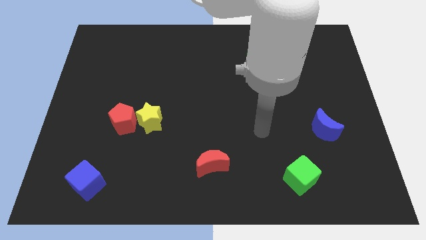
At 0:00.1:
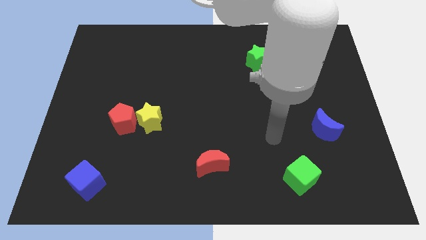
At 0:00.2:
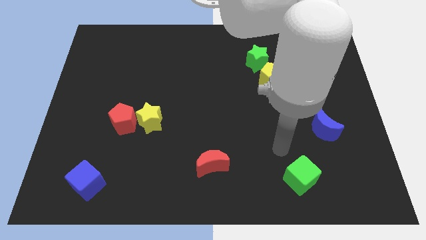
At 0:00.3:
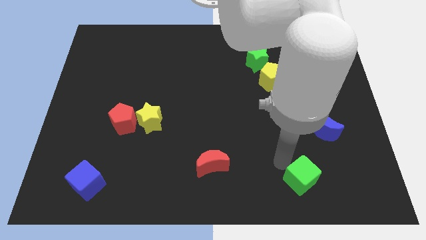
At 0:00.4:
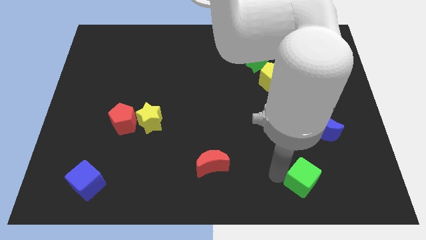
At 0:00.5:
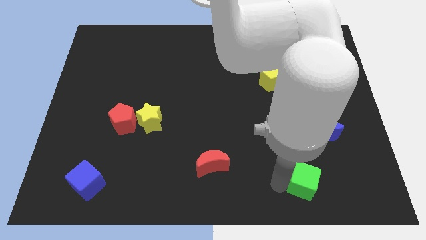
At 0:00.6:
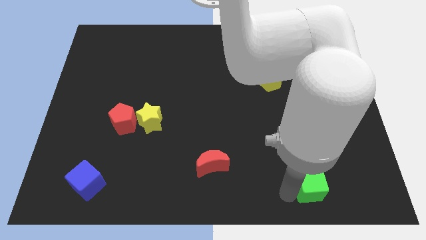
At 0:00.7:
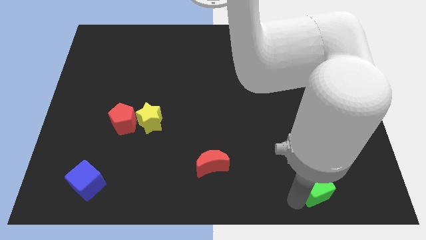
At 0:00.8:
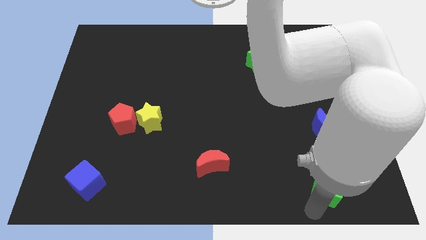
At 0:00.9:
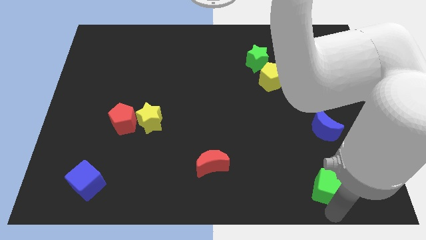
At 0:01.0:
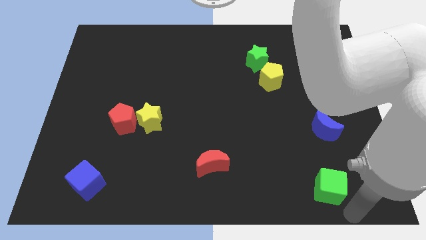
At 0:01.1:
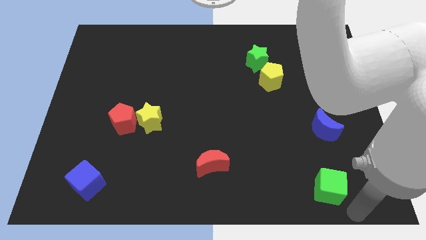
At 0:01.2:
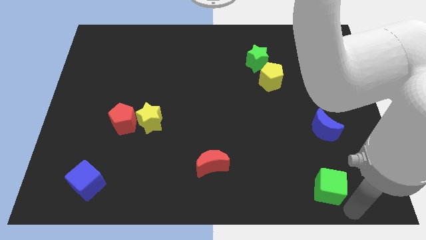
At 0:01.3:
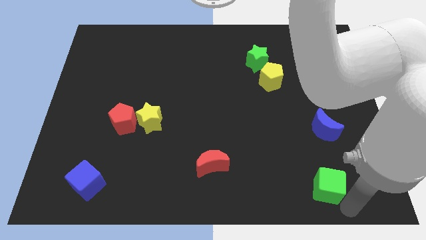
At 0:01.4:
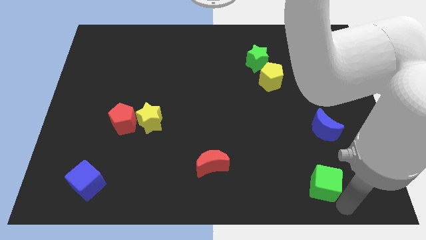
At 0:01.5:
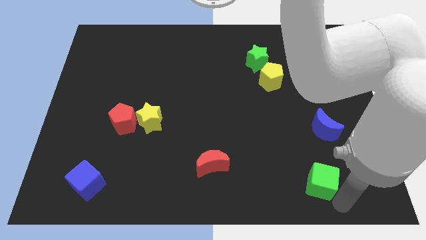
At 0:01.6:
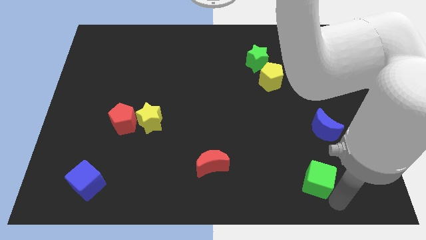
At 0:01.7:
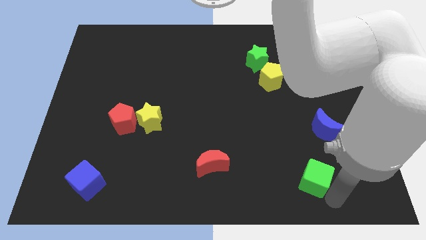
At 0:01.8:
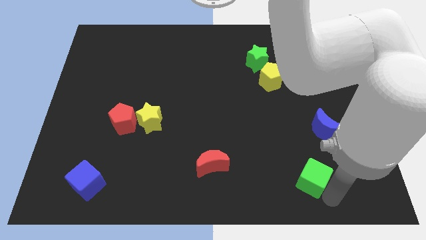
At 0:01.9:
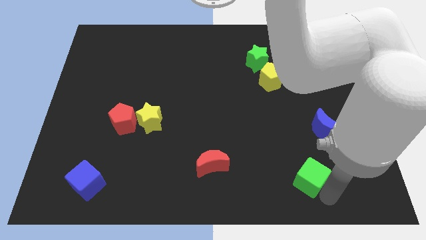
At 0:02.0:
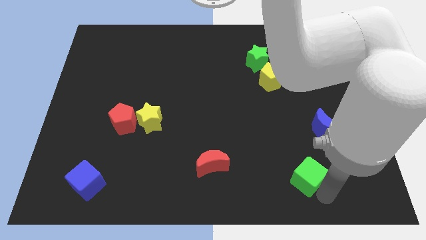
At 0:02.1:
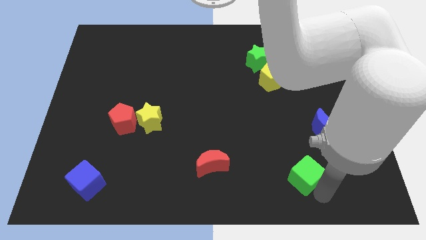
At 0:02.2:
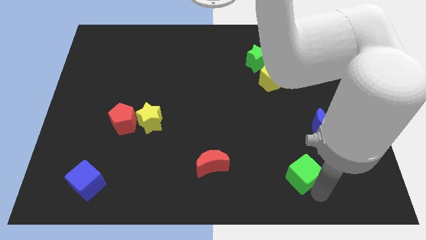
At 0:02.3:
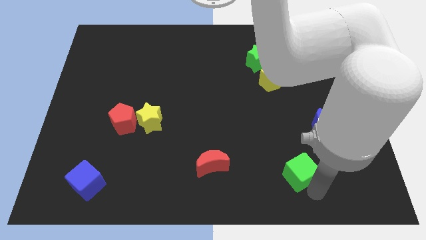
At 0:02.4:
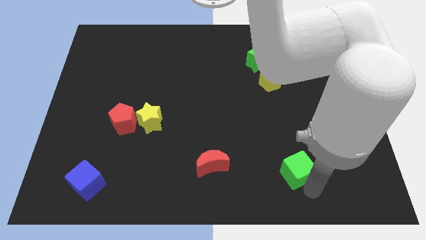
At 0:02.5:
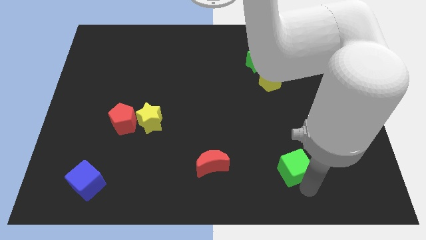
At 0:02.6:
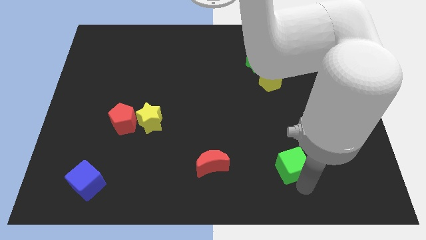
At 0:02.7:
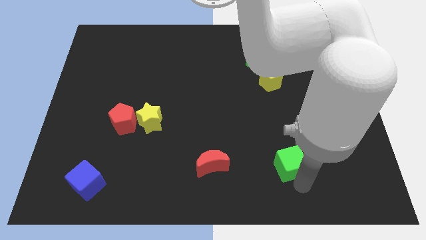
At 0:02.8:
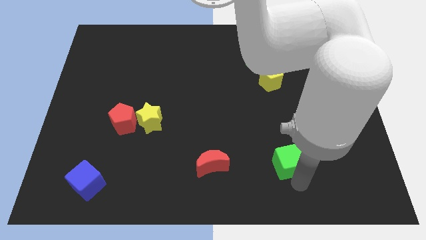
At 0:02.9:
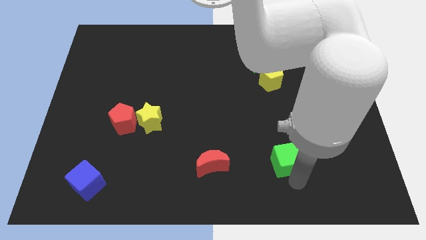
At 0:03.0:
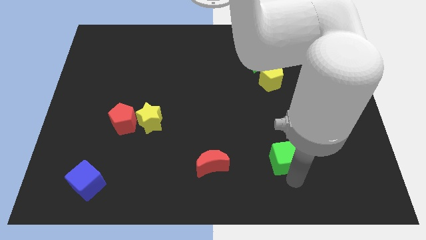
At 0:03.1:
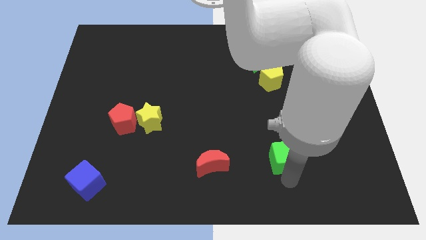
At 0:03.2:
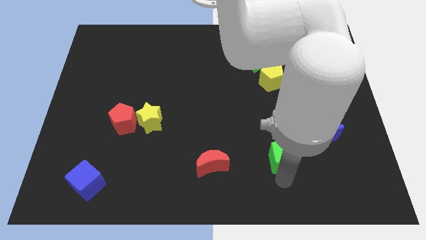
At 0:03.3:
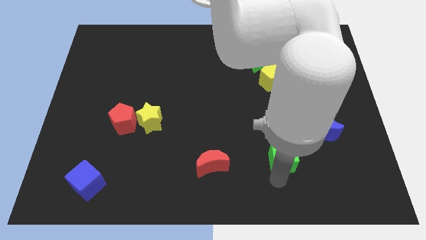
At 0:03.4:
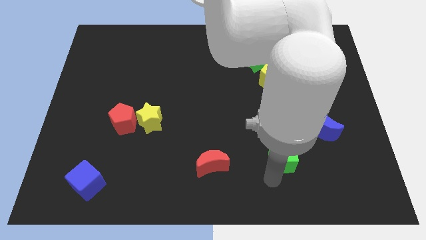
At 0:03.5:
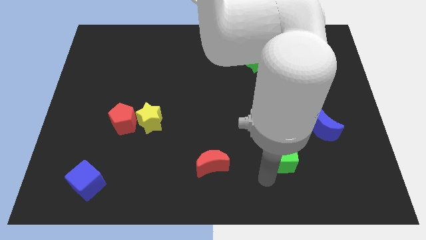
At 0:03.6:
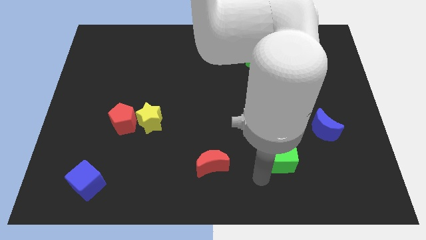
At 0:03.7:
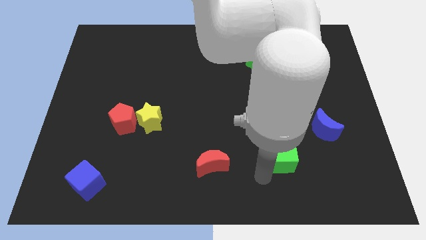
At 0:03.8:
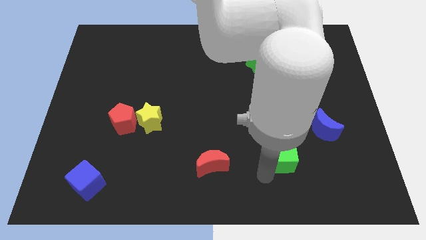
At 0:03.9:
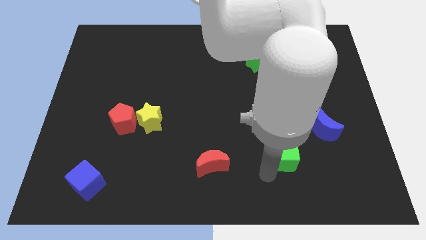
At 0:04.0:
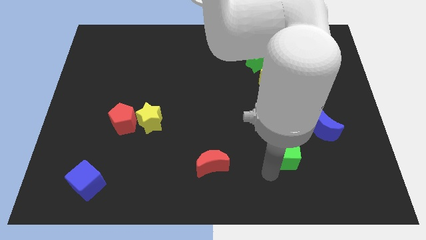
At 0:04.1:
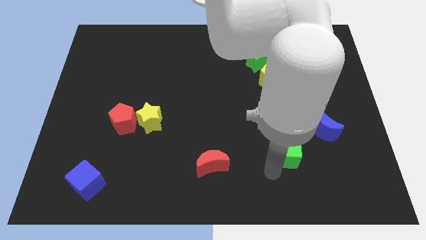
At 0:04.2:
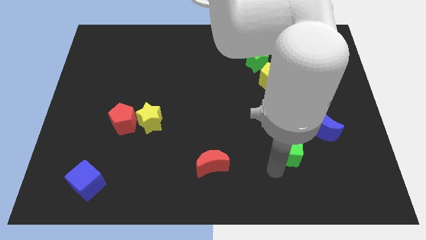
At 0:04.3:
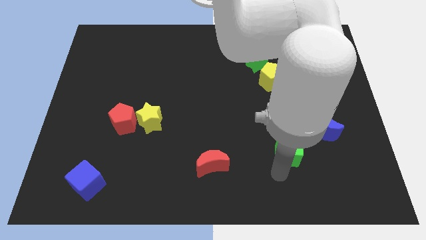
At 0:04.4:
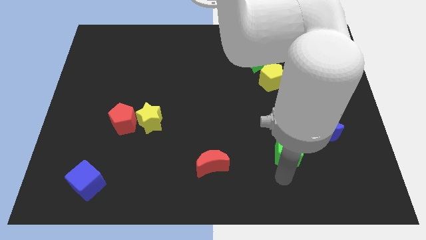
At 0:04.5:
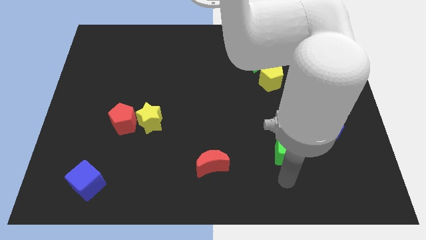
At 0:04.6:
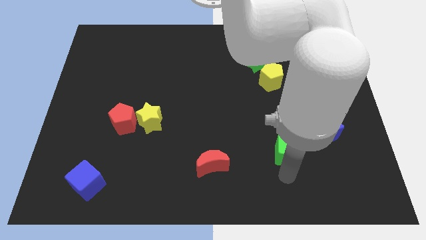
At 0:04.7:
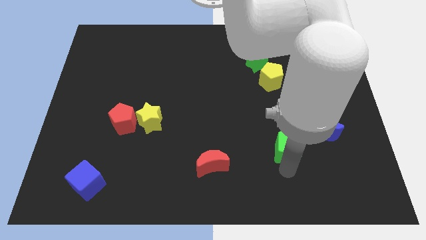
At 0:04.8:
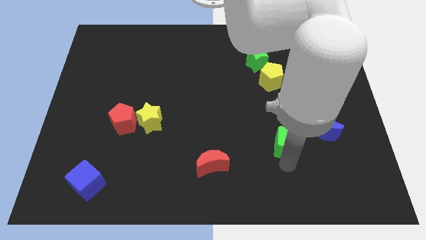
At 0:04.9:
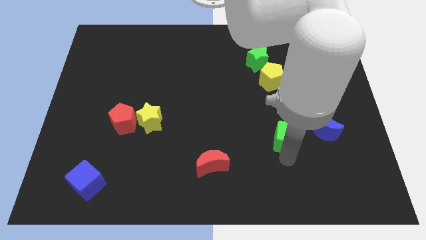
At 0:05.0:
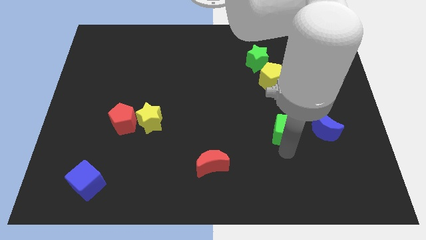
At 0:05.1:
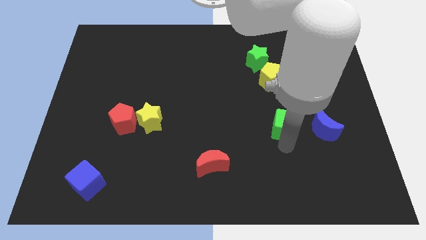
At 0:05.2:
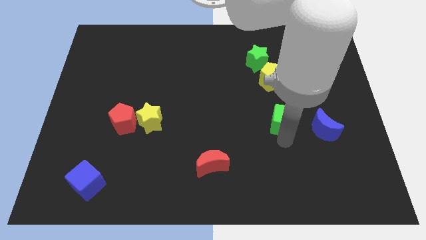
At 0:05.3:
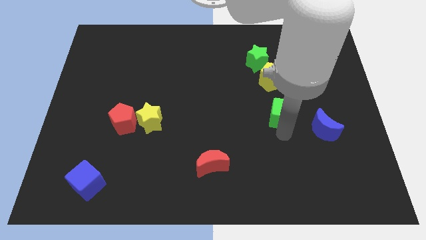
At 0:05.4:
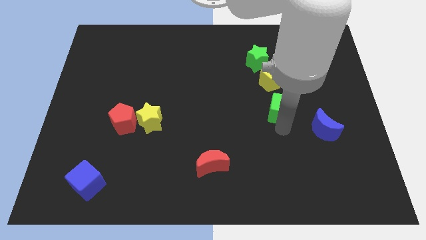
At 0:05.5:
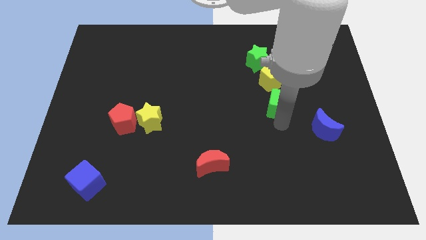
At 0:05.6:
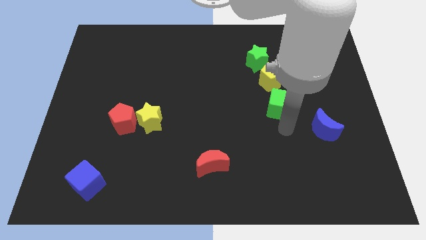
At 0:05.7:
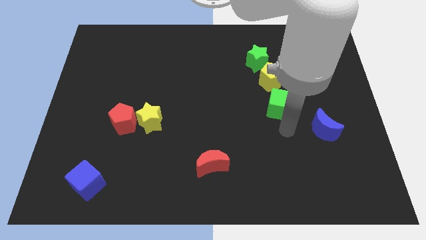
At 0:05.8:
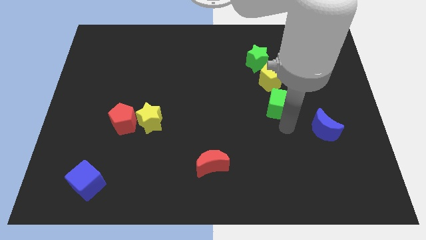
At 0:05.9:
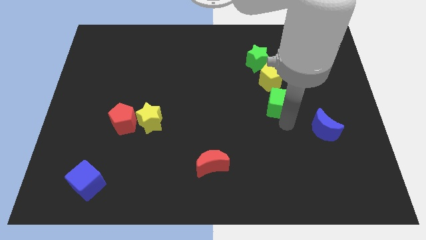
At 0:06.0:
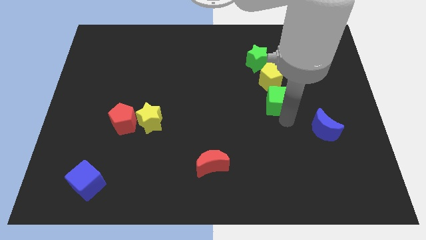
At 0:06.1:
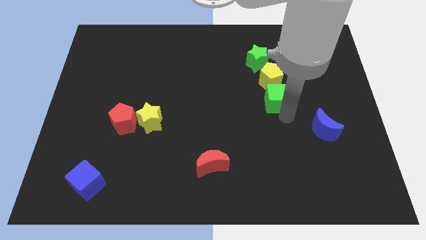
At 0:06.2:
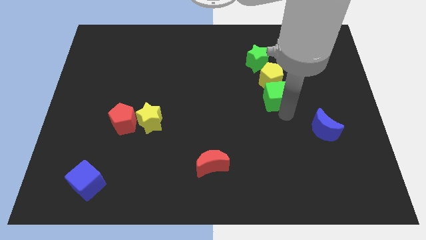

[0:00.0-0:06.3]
slide the green cube to the yellow pentagon

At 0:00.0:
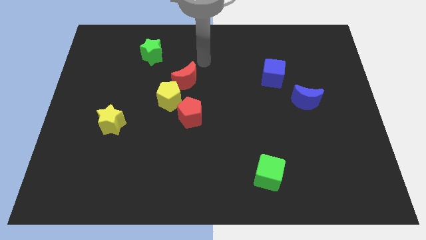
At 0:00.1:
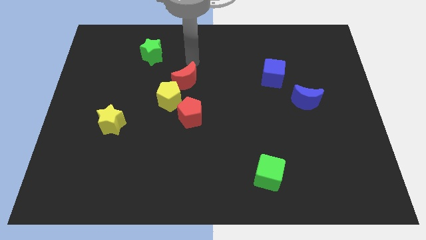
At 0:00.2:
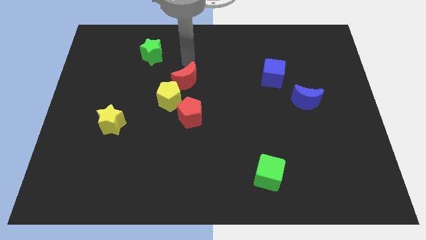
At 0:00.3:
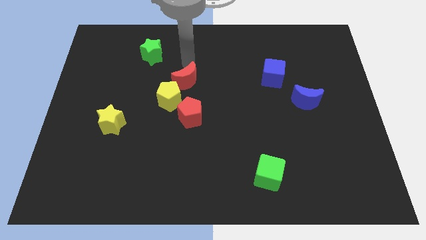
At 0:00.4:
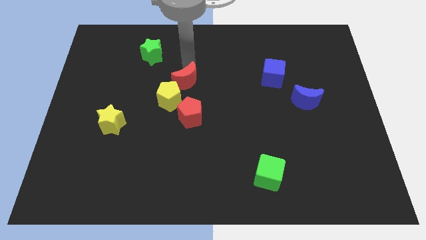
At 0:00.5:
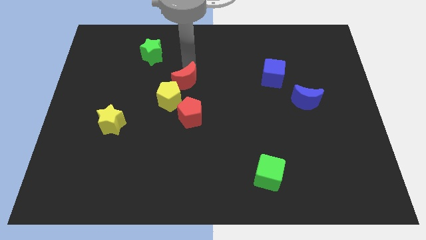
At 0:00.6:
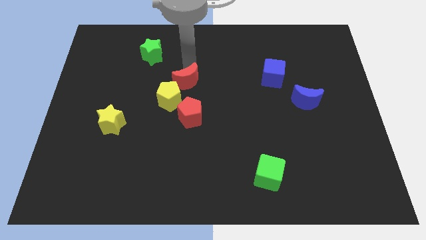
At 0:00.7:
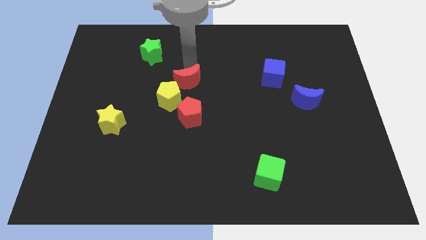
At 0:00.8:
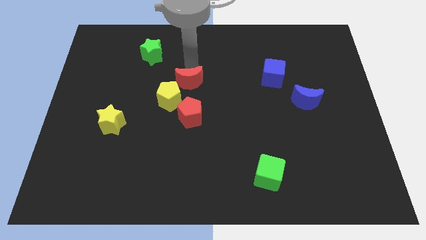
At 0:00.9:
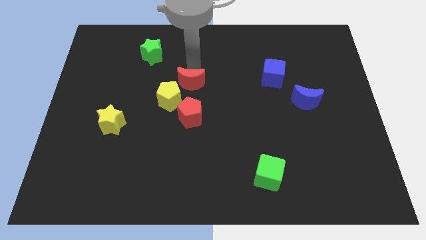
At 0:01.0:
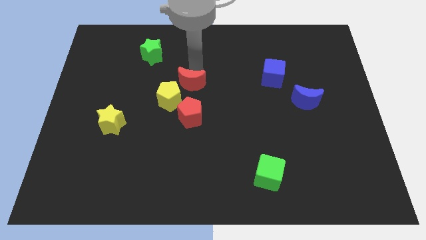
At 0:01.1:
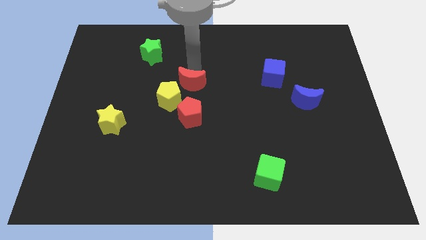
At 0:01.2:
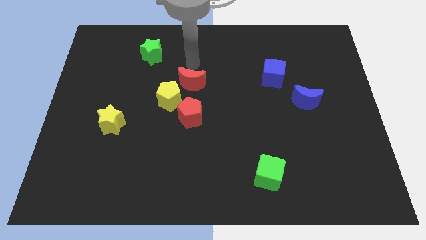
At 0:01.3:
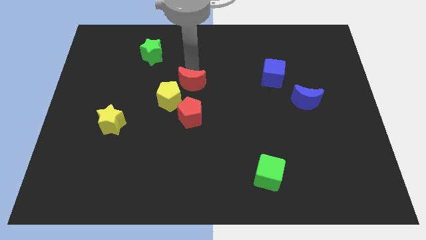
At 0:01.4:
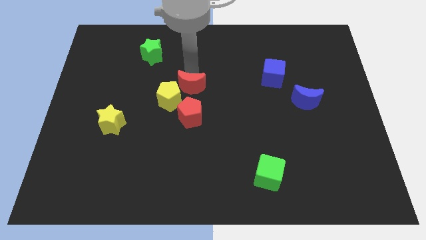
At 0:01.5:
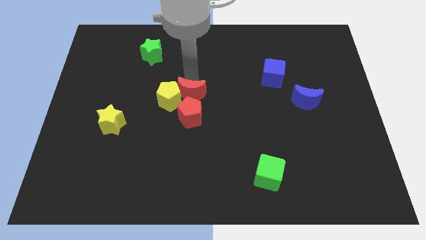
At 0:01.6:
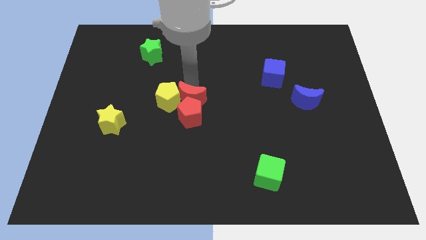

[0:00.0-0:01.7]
put the red moon close to the red pentagon
